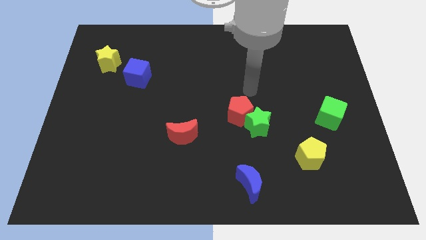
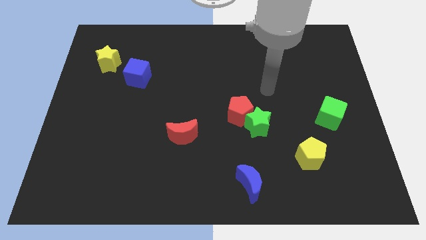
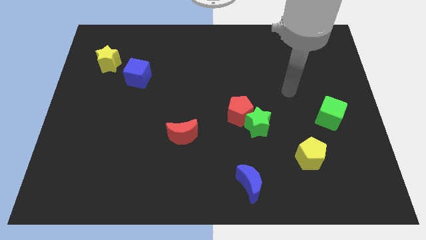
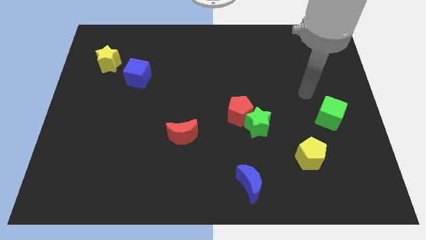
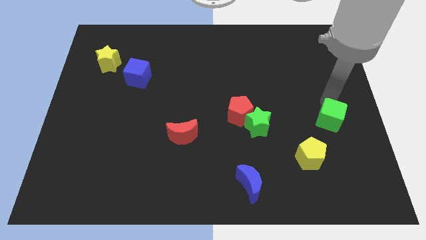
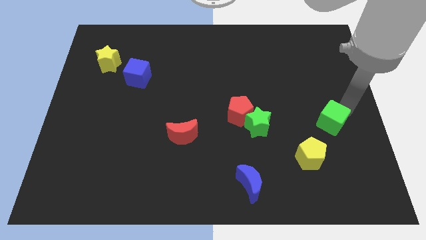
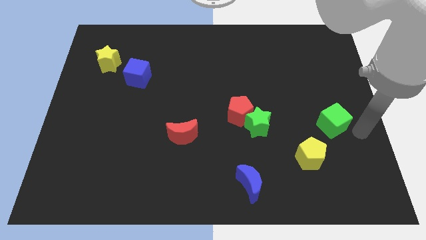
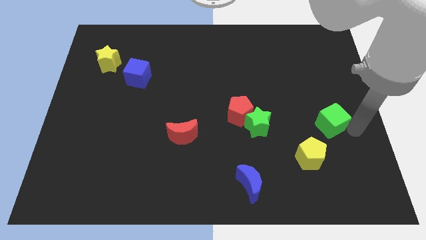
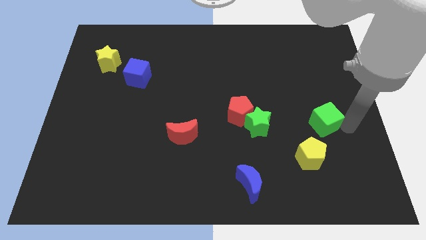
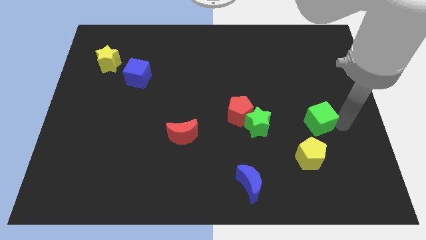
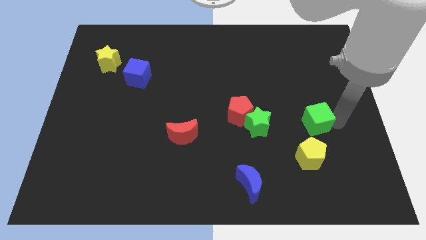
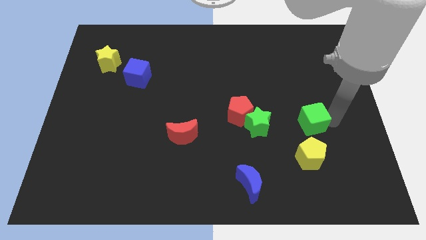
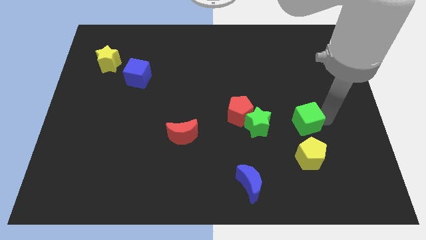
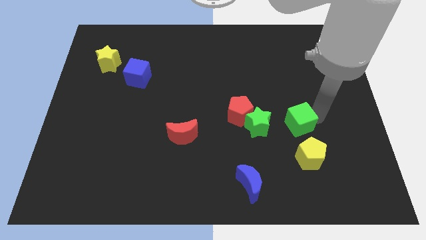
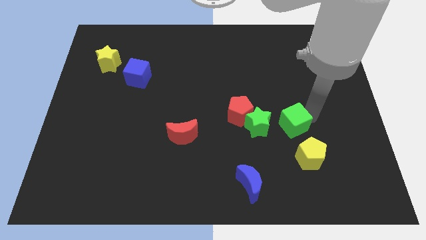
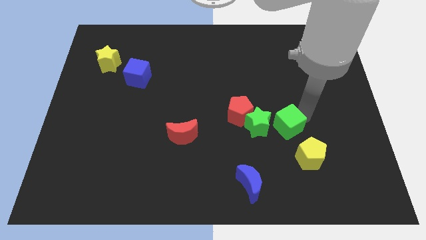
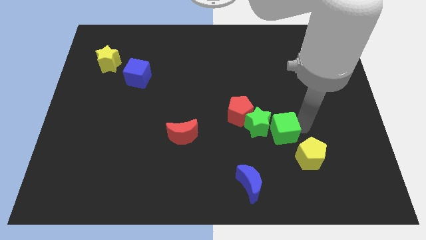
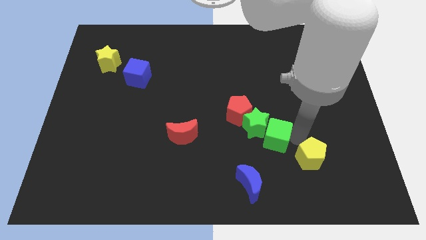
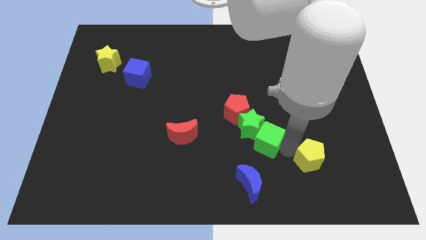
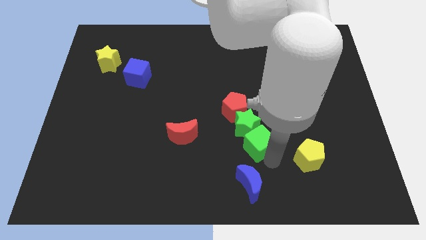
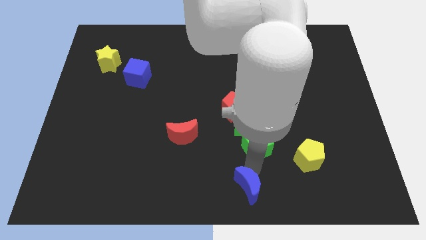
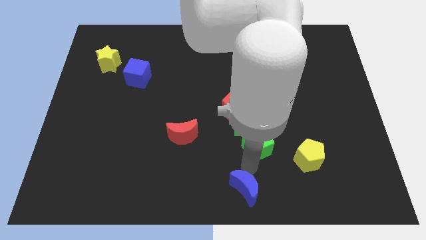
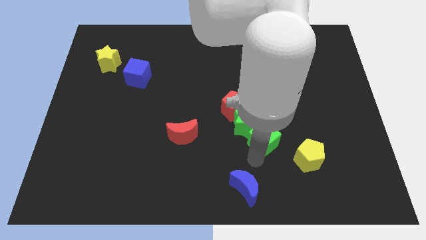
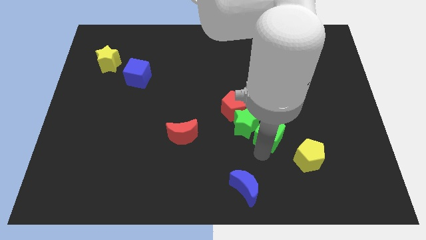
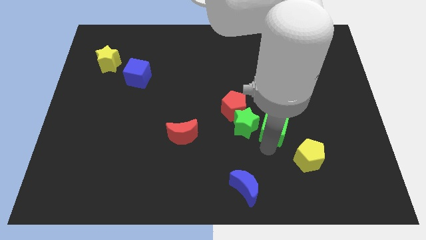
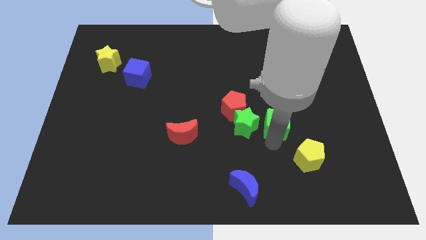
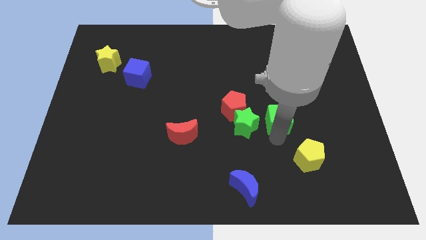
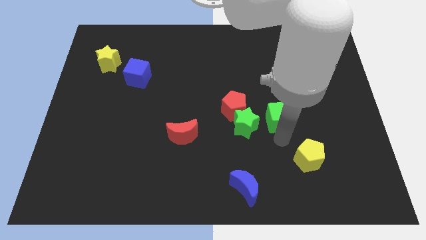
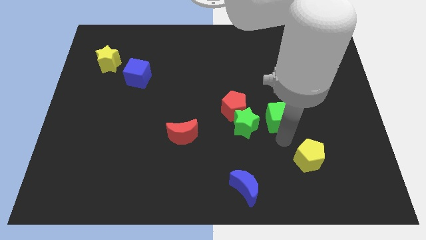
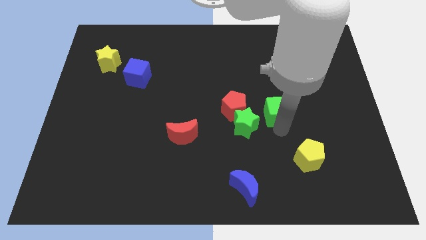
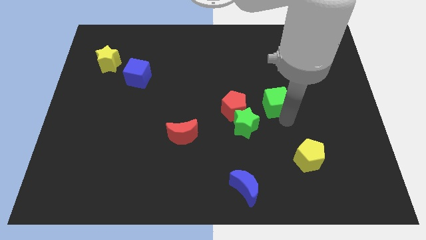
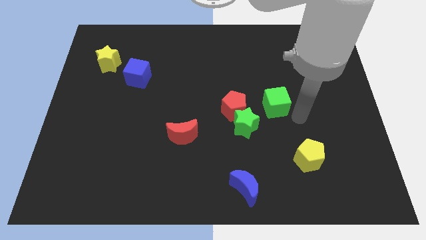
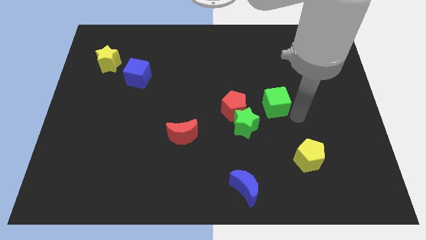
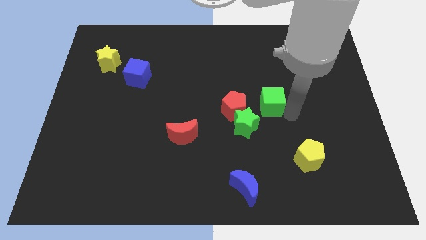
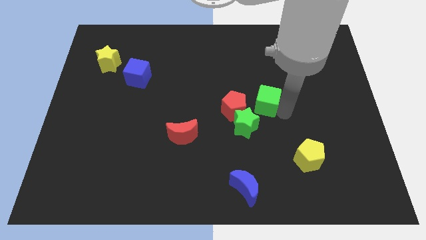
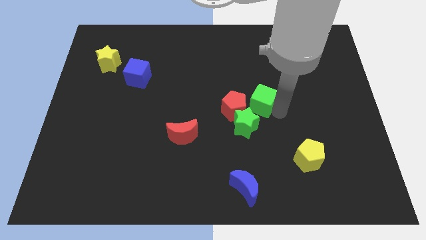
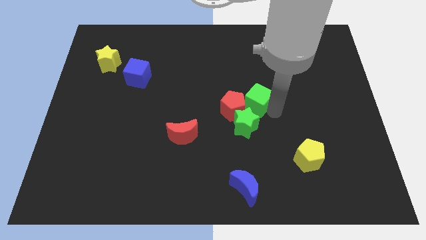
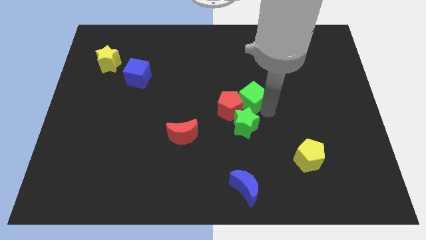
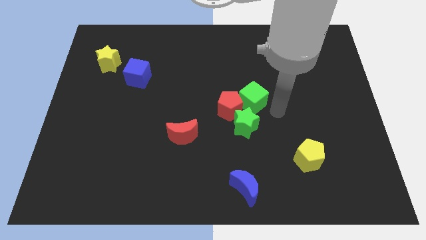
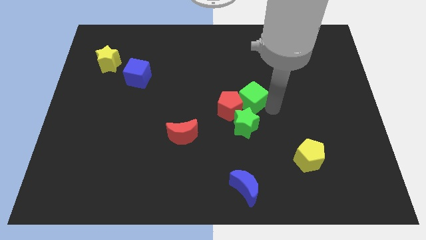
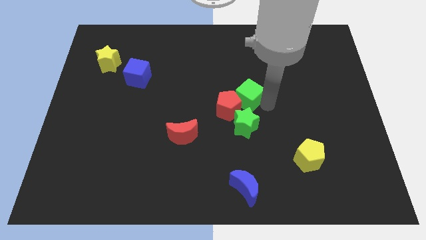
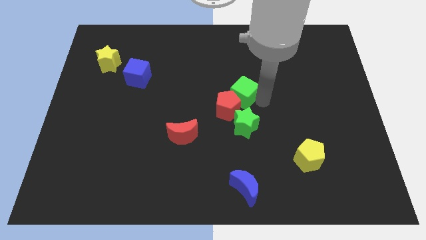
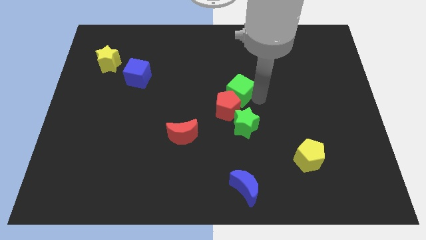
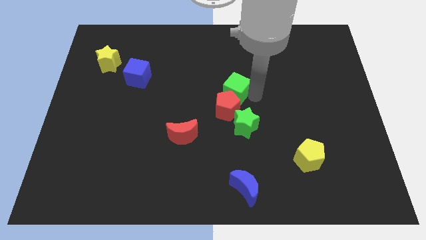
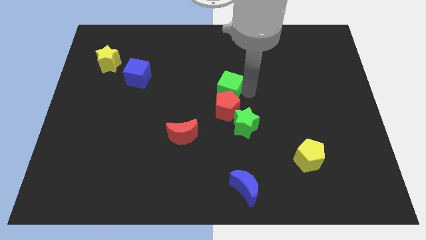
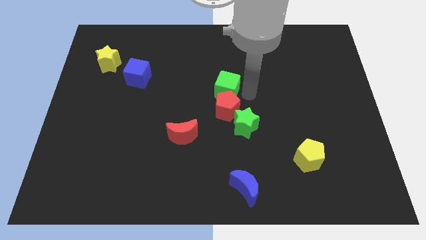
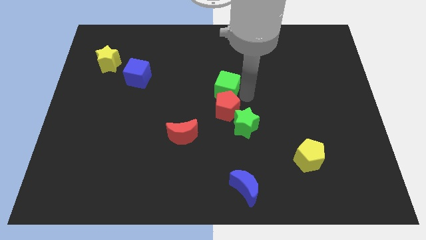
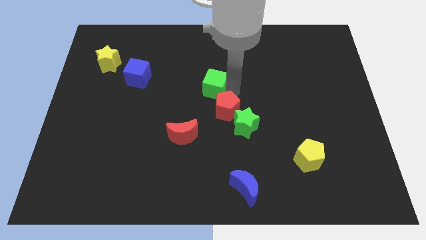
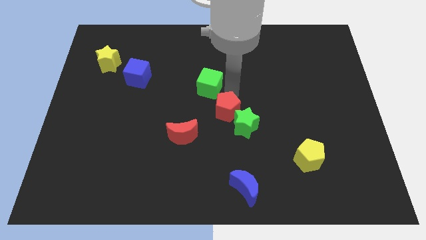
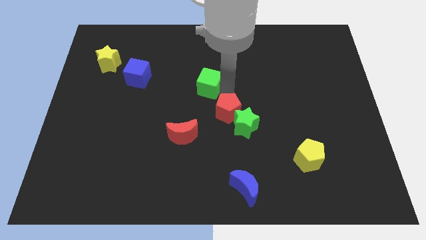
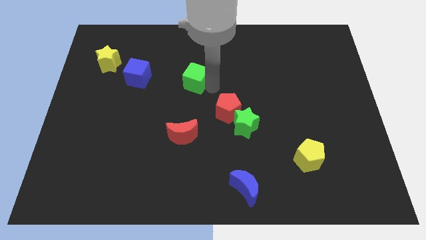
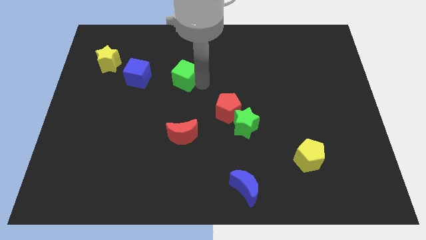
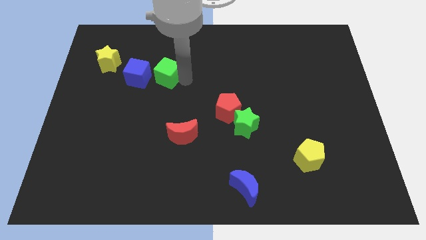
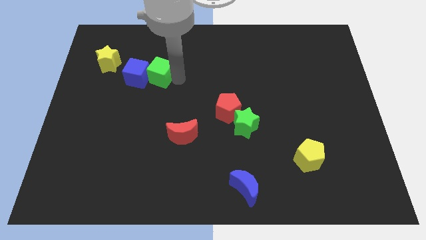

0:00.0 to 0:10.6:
slide the green cube just right of the yellow star
